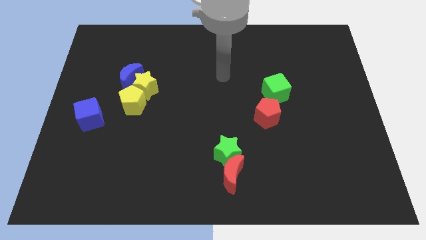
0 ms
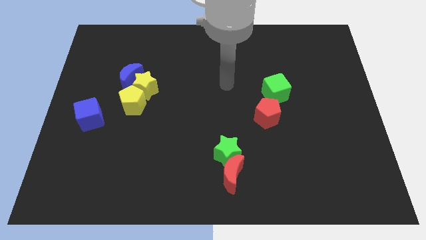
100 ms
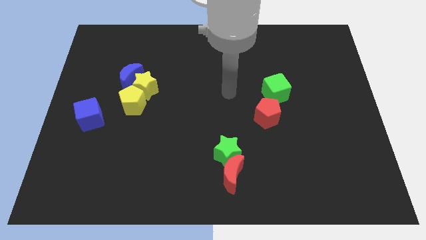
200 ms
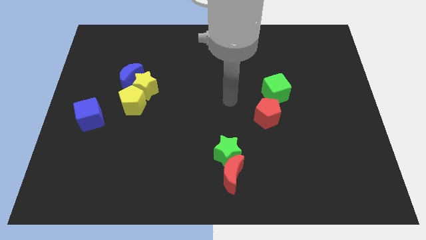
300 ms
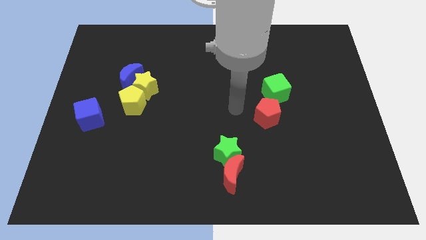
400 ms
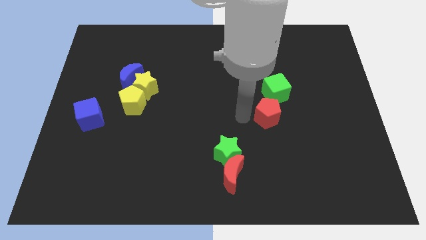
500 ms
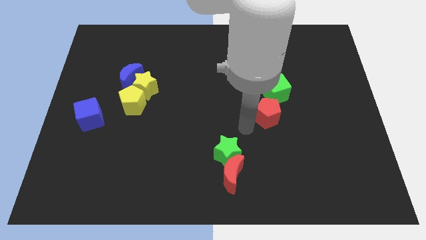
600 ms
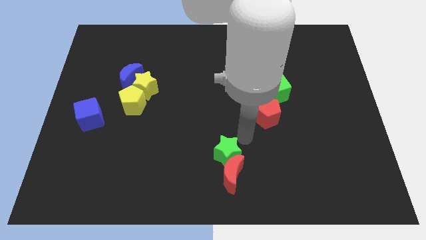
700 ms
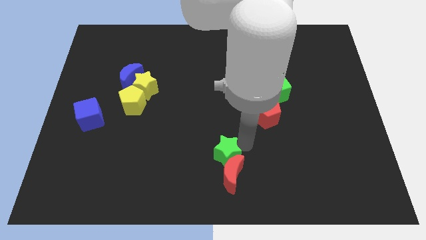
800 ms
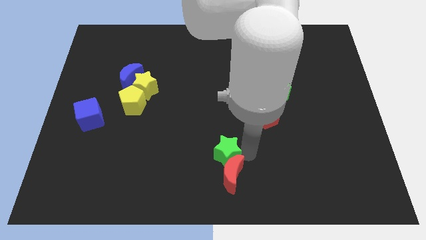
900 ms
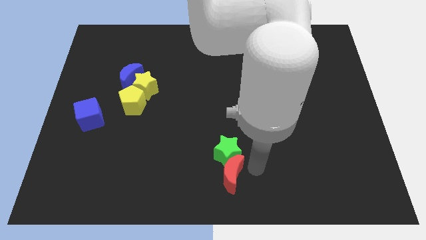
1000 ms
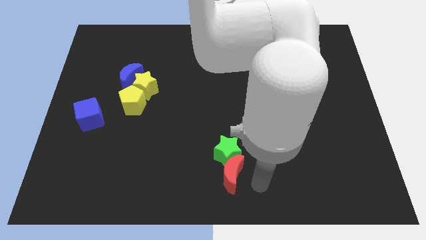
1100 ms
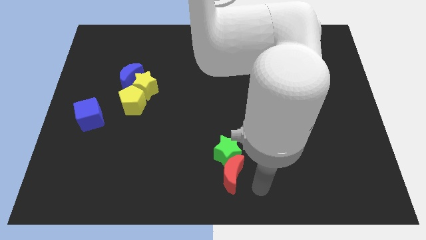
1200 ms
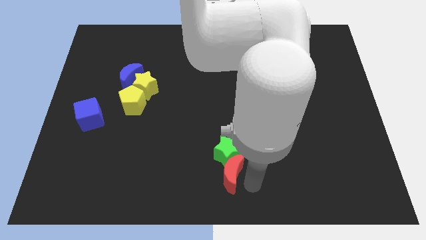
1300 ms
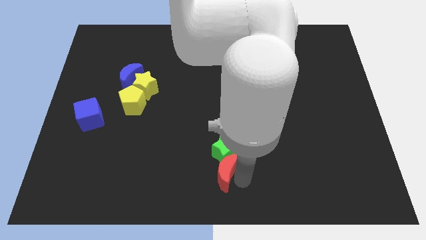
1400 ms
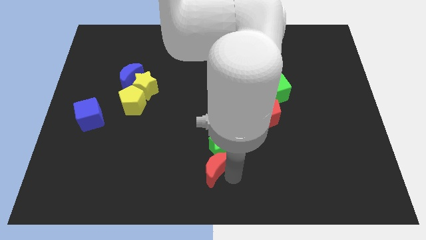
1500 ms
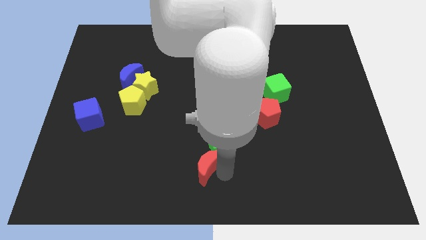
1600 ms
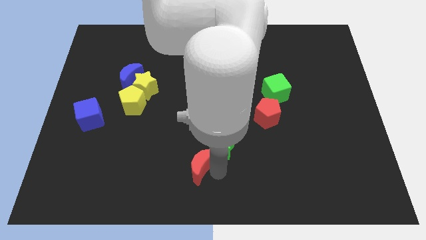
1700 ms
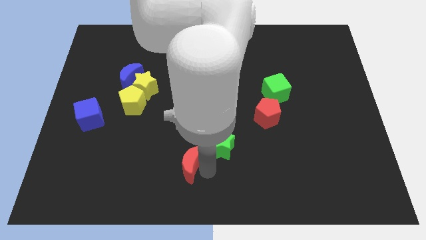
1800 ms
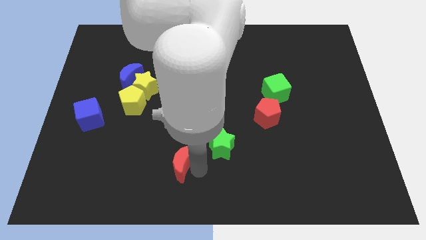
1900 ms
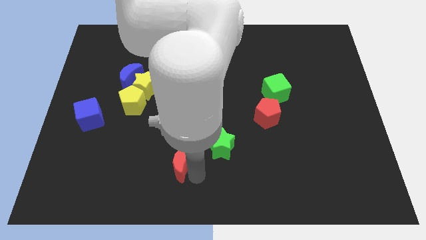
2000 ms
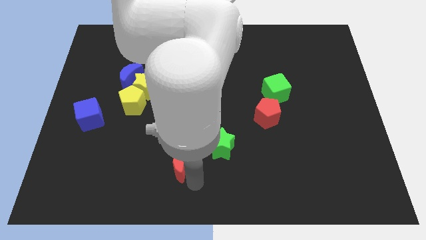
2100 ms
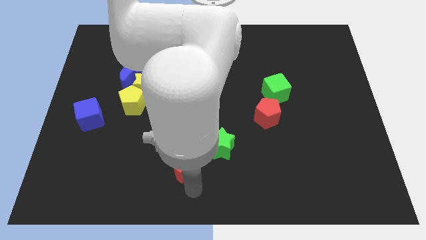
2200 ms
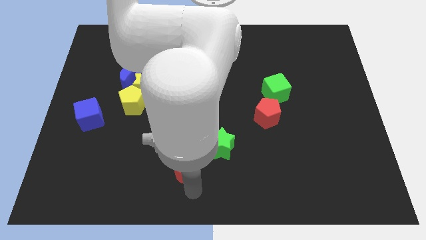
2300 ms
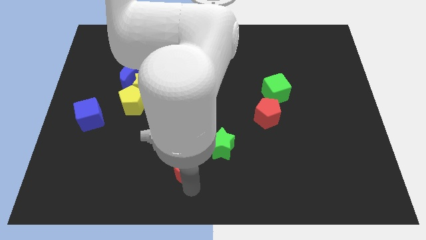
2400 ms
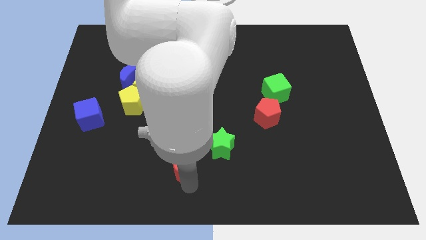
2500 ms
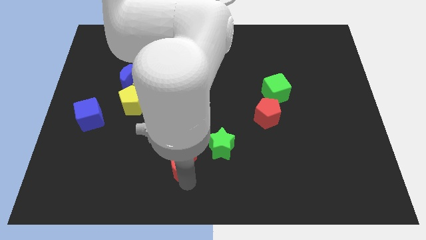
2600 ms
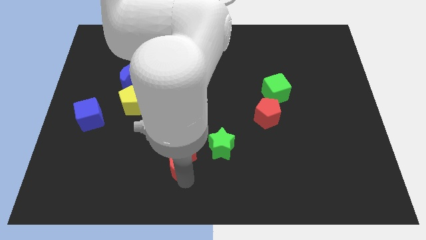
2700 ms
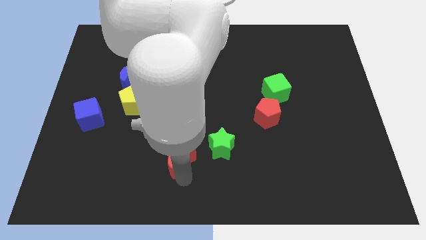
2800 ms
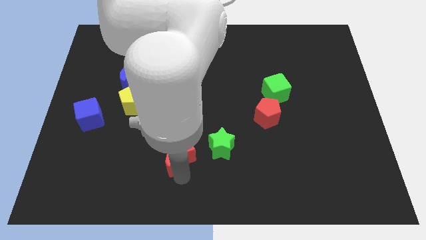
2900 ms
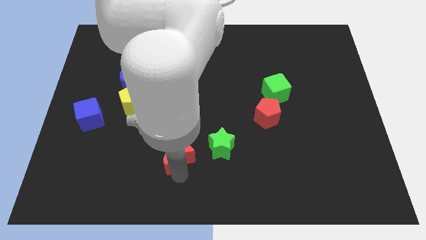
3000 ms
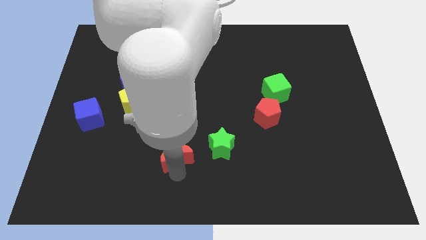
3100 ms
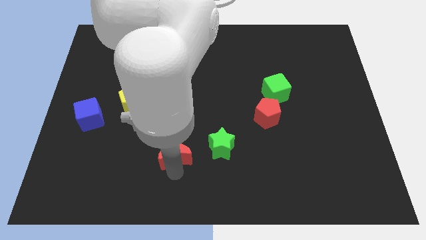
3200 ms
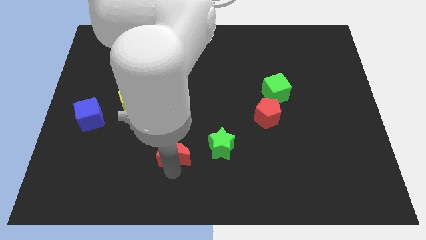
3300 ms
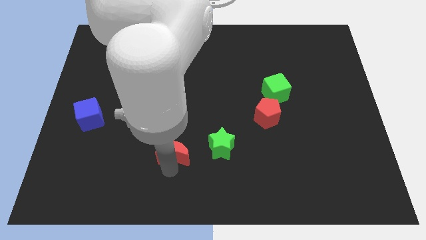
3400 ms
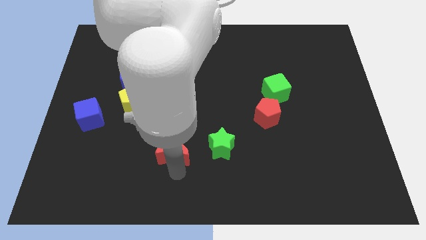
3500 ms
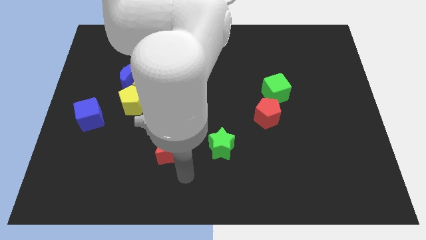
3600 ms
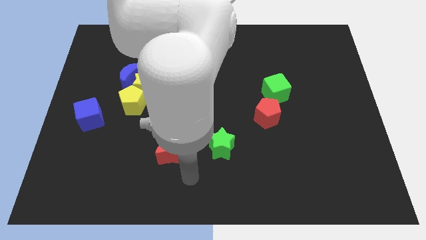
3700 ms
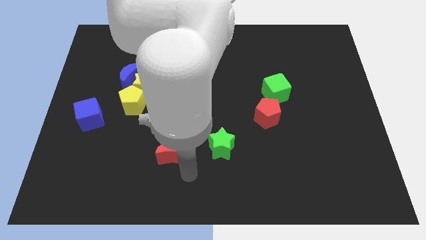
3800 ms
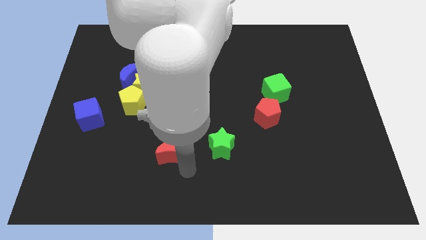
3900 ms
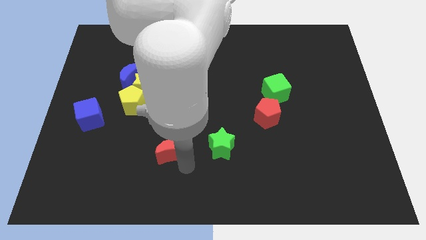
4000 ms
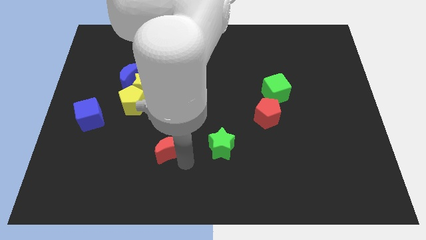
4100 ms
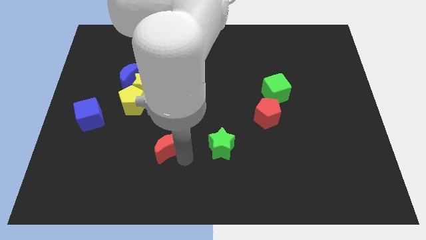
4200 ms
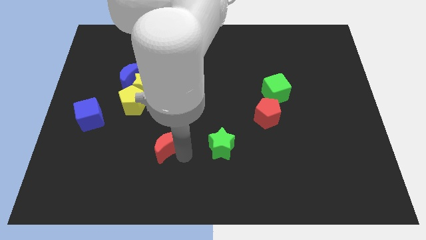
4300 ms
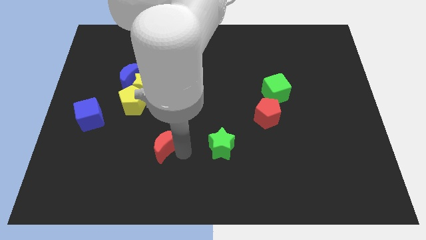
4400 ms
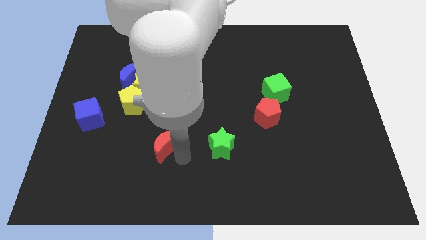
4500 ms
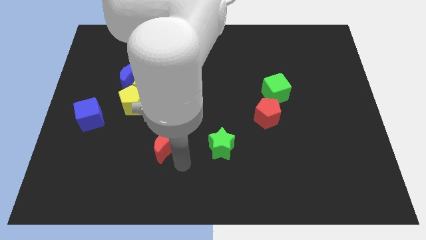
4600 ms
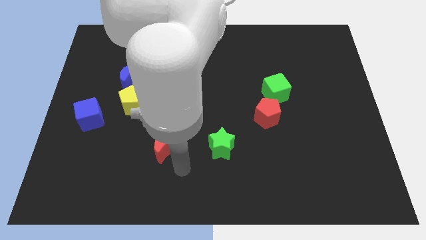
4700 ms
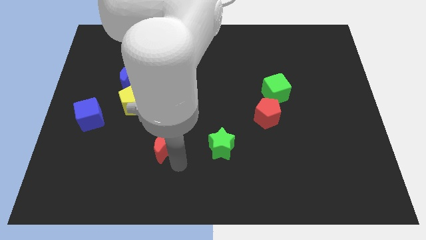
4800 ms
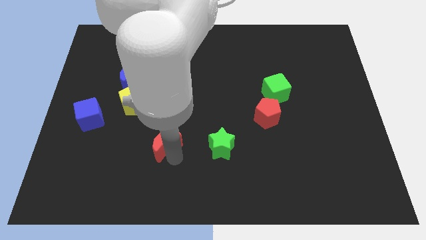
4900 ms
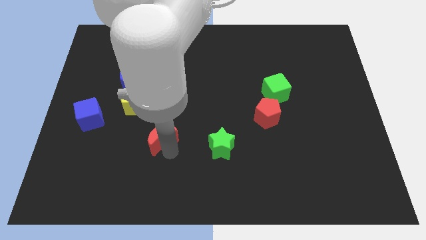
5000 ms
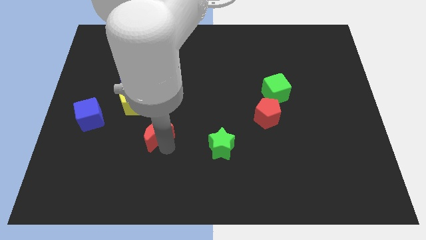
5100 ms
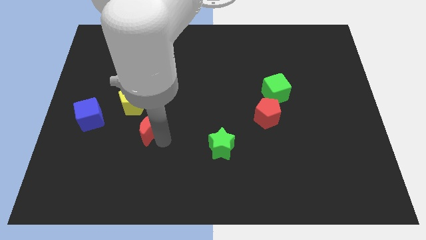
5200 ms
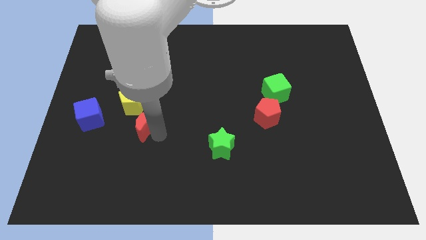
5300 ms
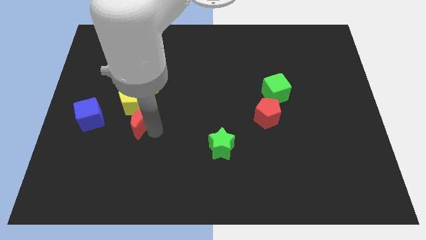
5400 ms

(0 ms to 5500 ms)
put the red moon to the yellow pentagon

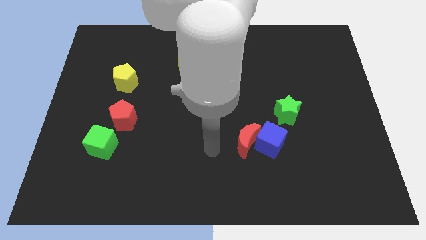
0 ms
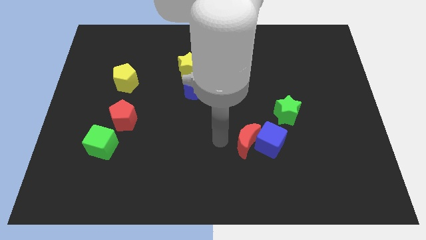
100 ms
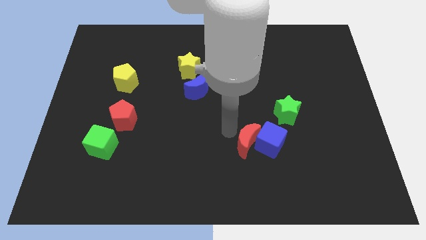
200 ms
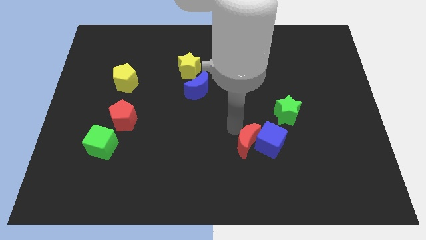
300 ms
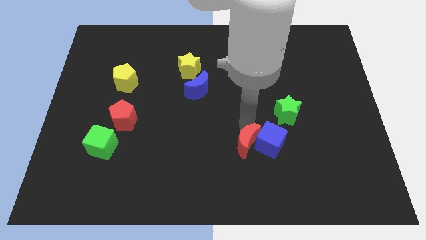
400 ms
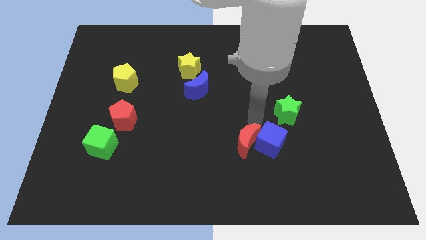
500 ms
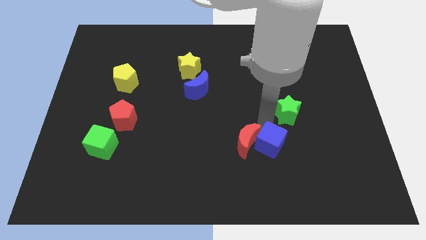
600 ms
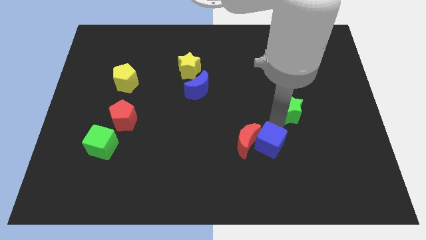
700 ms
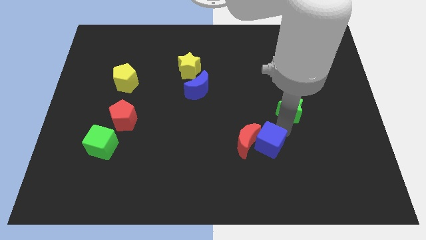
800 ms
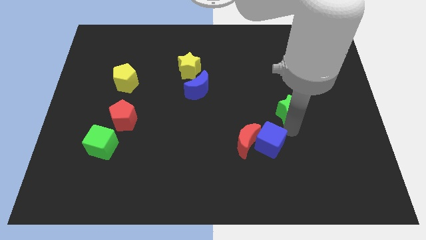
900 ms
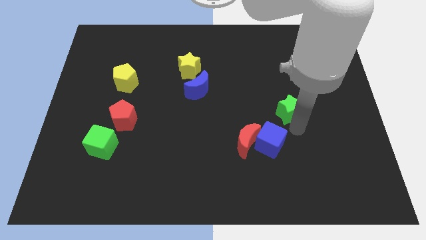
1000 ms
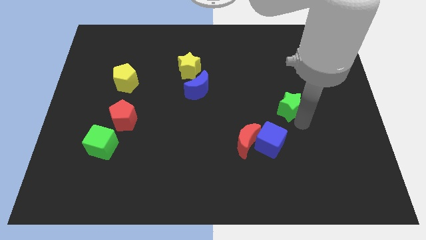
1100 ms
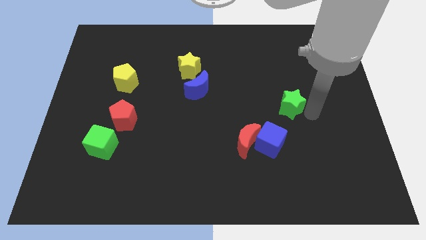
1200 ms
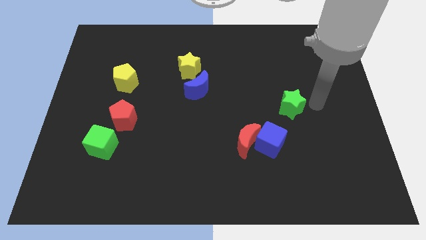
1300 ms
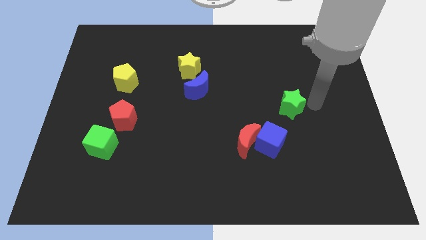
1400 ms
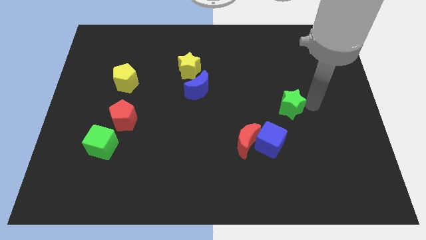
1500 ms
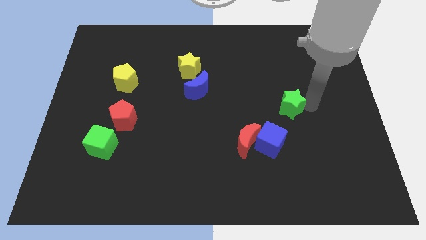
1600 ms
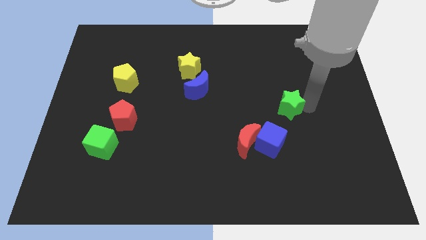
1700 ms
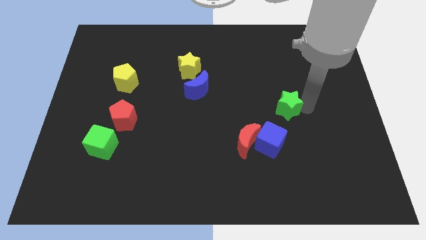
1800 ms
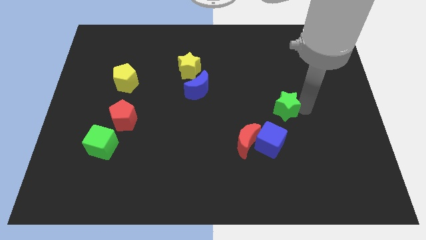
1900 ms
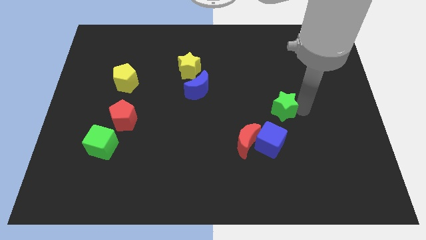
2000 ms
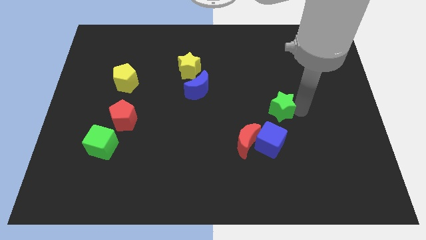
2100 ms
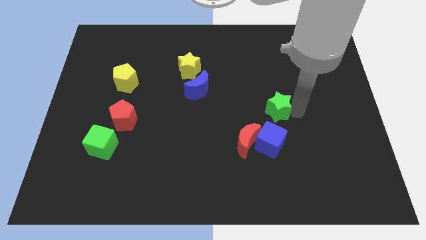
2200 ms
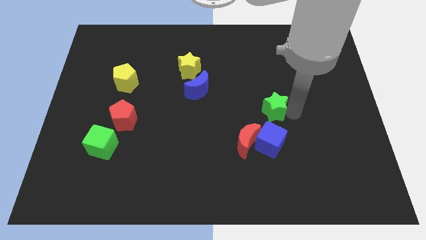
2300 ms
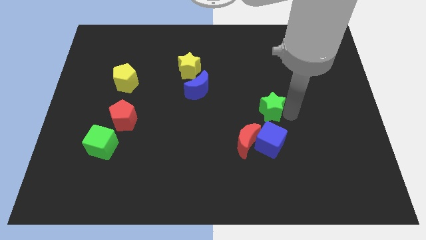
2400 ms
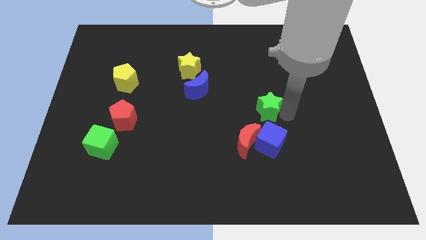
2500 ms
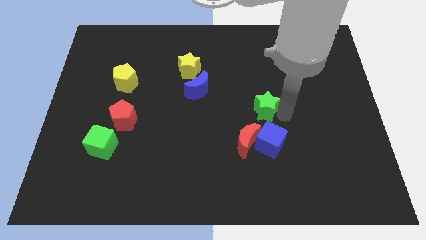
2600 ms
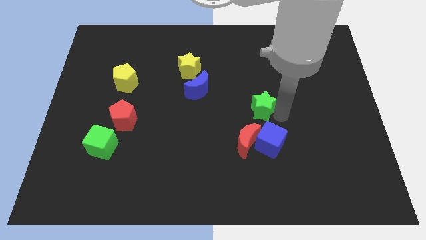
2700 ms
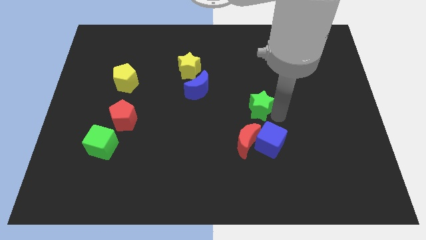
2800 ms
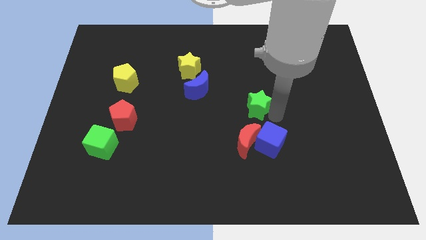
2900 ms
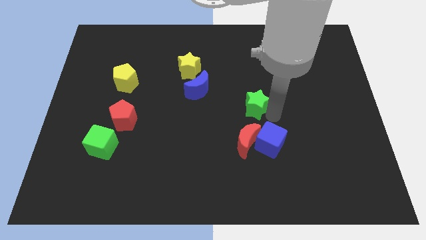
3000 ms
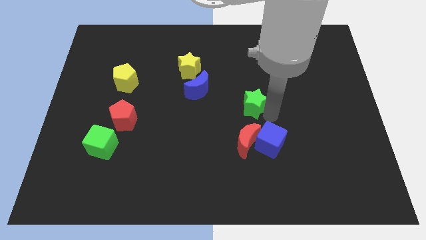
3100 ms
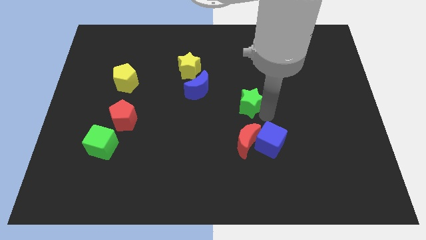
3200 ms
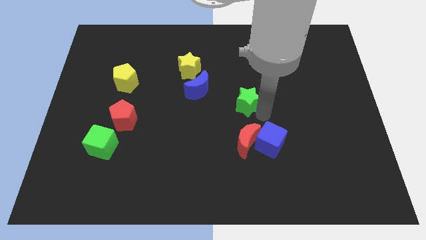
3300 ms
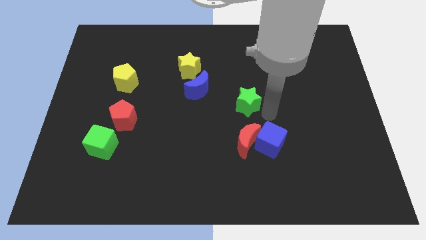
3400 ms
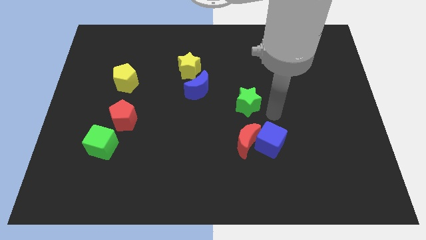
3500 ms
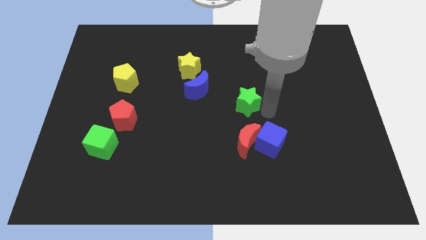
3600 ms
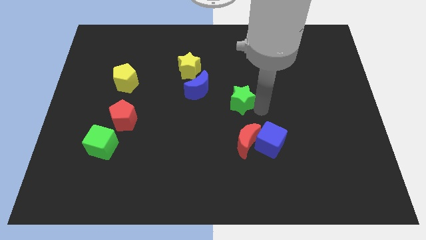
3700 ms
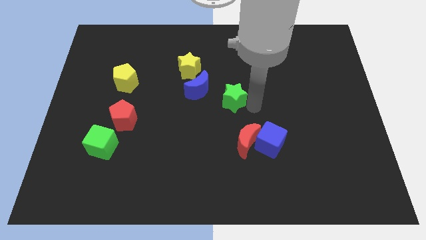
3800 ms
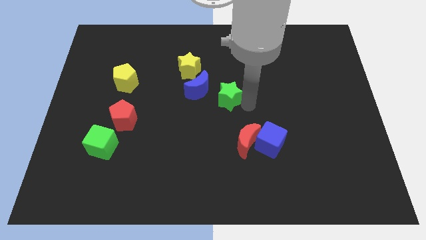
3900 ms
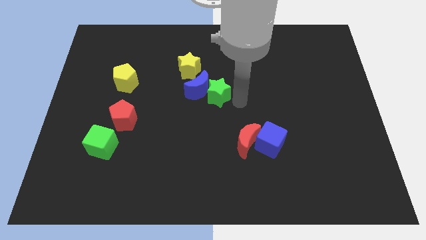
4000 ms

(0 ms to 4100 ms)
slide the green star next to the blue moon
